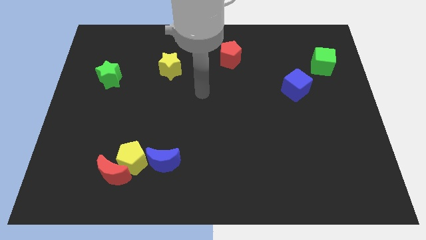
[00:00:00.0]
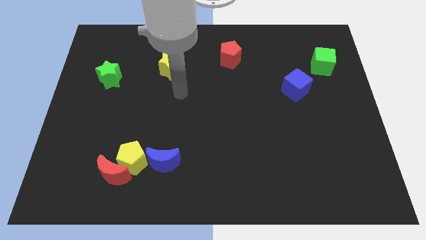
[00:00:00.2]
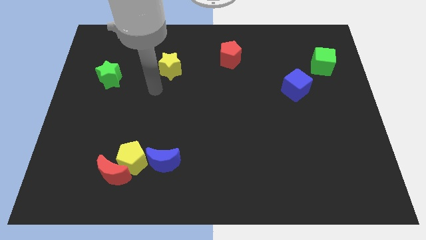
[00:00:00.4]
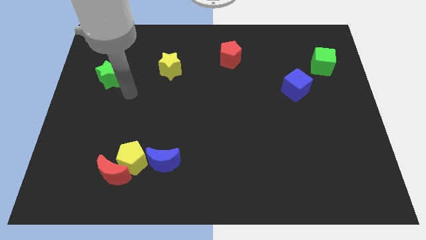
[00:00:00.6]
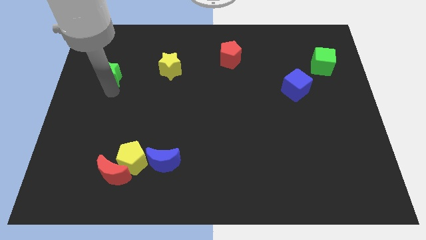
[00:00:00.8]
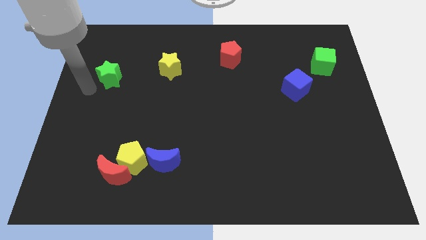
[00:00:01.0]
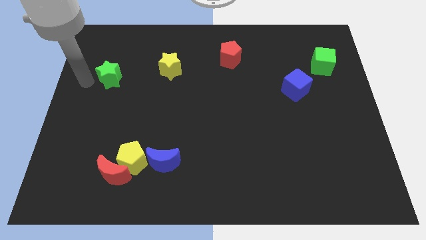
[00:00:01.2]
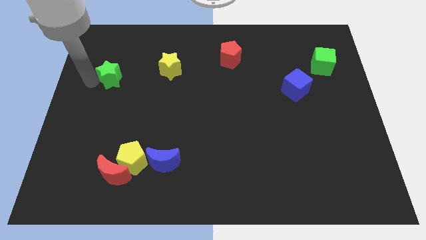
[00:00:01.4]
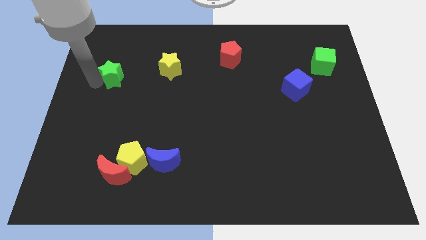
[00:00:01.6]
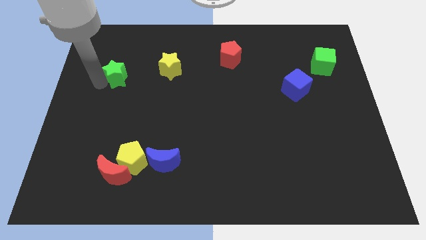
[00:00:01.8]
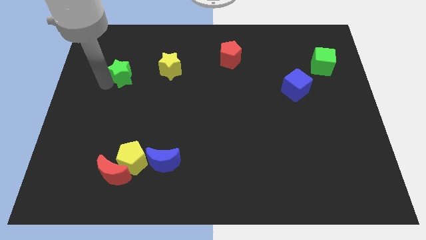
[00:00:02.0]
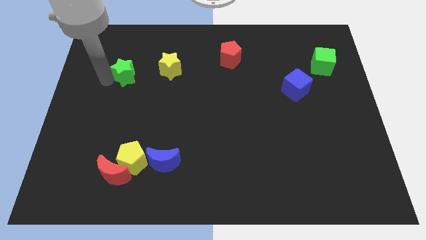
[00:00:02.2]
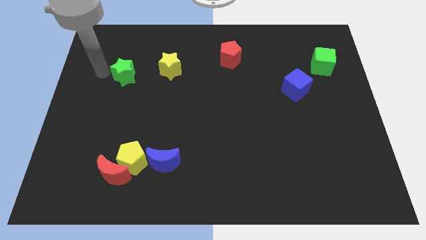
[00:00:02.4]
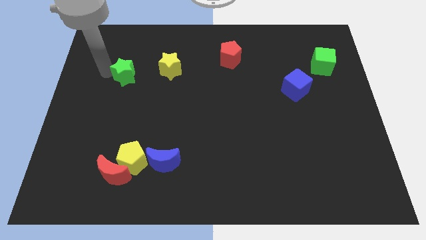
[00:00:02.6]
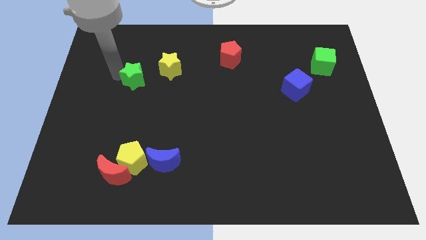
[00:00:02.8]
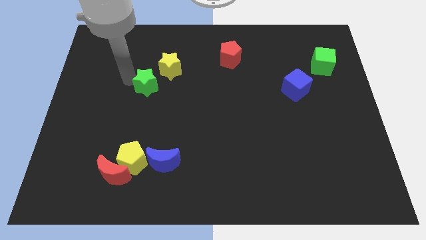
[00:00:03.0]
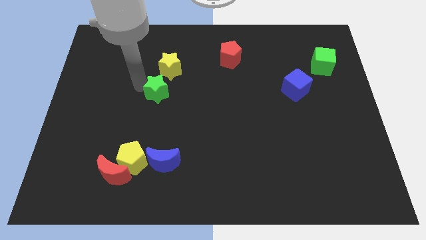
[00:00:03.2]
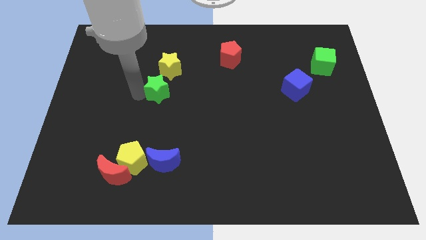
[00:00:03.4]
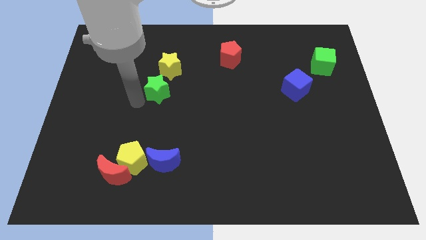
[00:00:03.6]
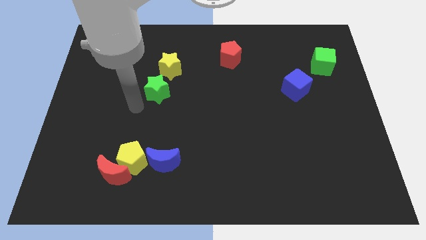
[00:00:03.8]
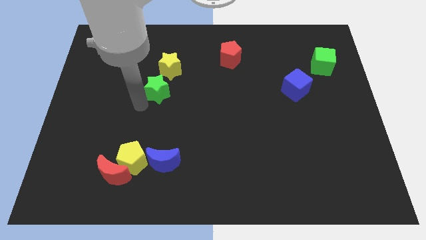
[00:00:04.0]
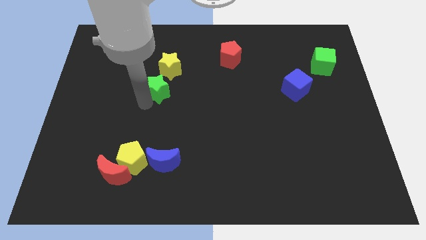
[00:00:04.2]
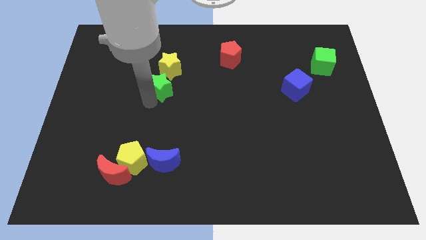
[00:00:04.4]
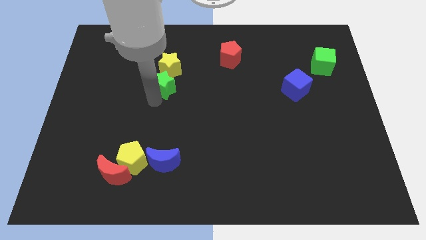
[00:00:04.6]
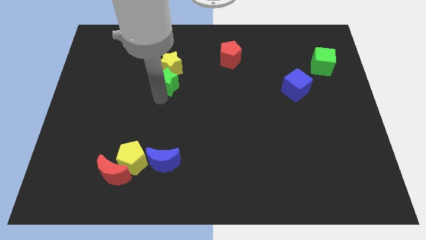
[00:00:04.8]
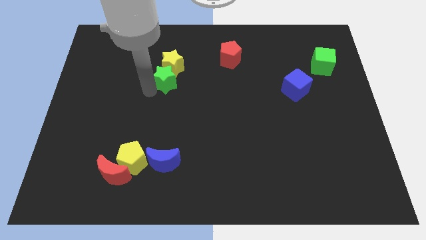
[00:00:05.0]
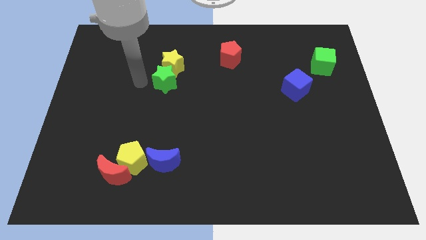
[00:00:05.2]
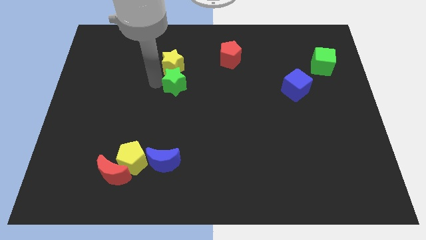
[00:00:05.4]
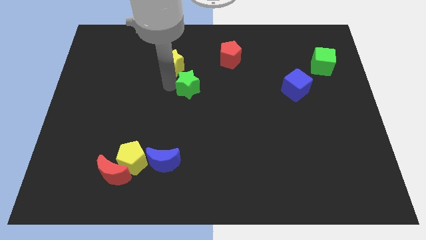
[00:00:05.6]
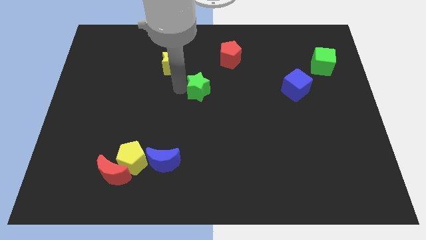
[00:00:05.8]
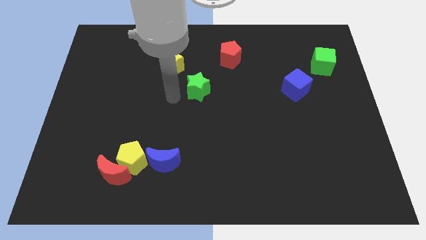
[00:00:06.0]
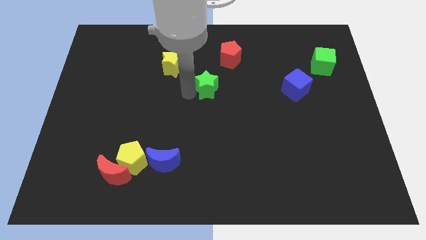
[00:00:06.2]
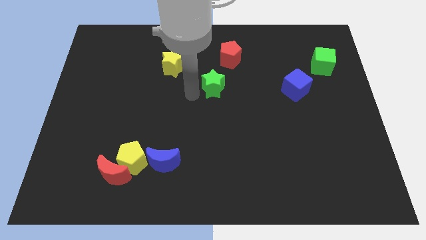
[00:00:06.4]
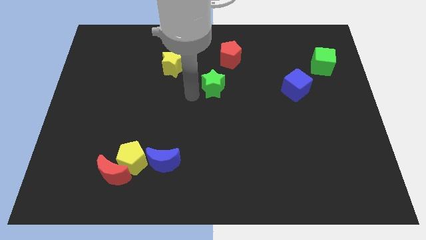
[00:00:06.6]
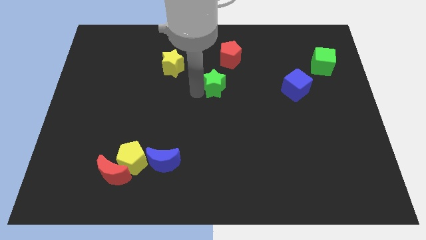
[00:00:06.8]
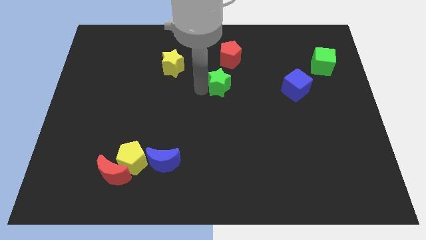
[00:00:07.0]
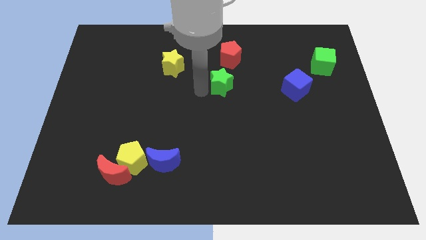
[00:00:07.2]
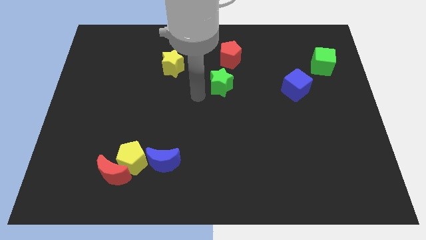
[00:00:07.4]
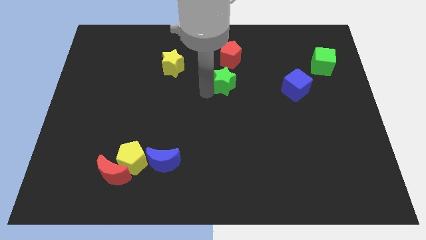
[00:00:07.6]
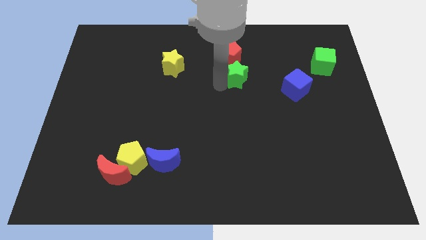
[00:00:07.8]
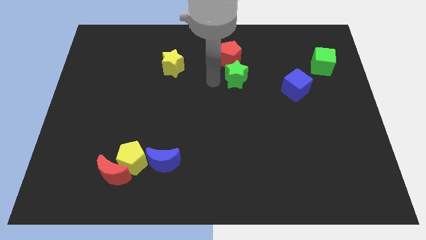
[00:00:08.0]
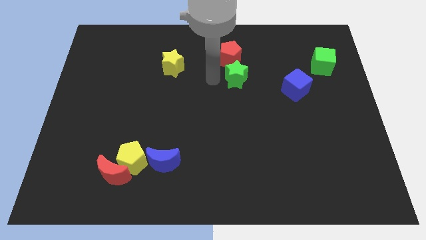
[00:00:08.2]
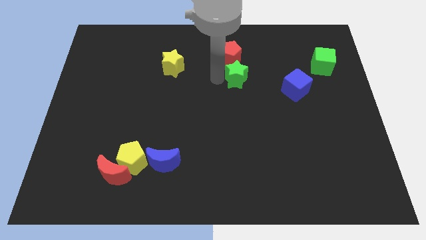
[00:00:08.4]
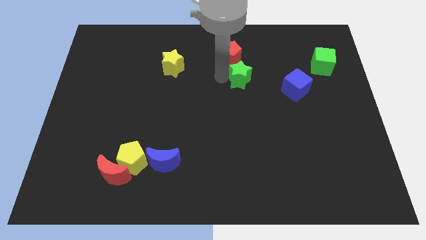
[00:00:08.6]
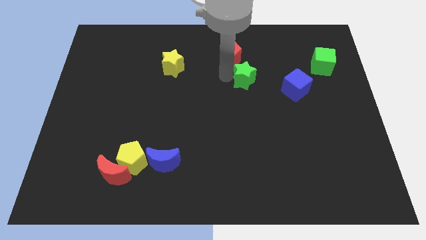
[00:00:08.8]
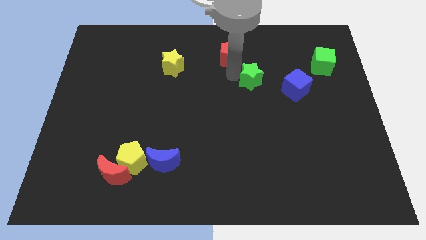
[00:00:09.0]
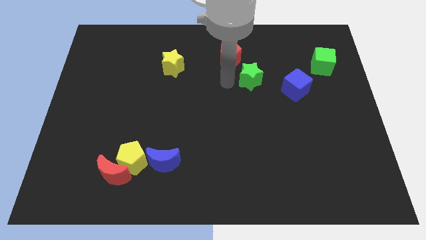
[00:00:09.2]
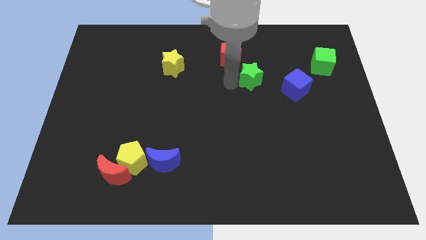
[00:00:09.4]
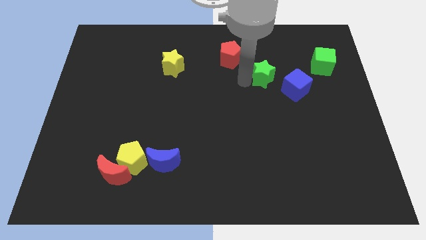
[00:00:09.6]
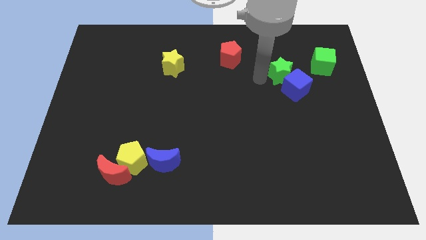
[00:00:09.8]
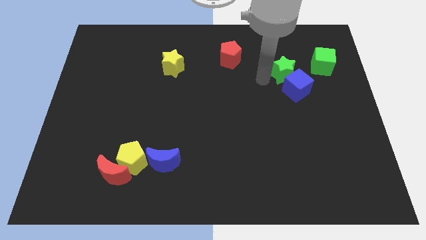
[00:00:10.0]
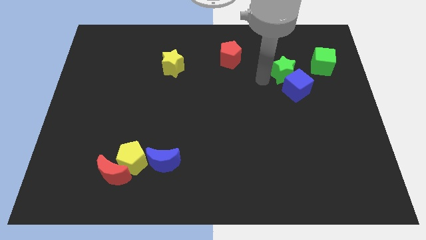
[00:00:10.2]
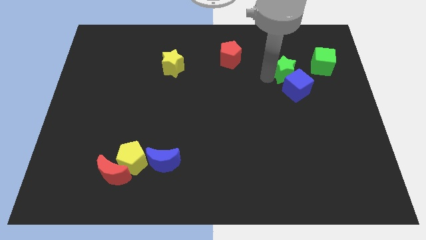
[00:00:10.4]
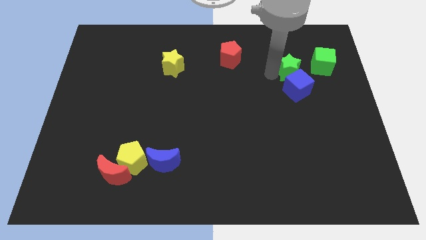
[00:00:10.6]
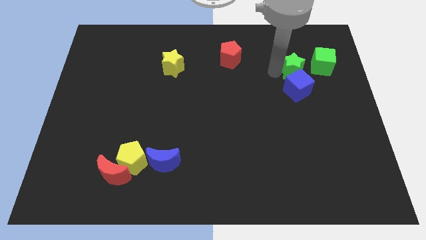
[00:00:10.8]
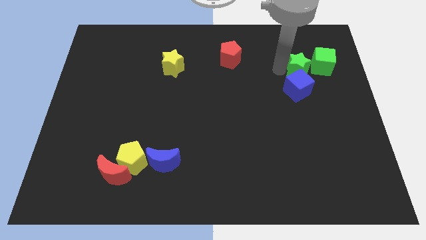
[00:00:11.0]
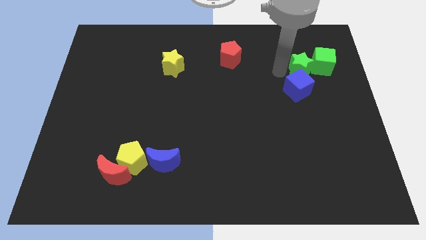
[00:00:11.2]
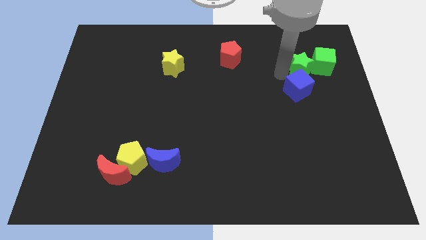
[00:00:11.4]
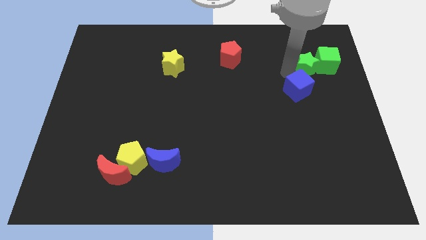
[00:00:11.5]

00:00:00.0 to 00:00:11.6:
slide the green star close to the green cube

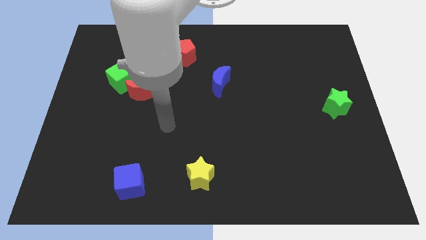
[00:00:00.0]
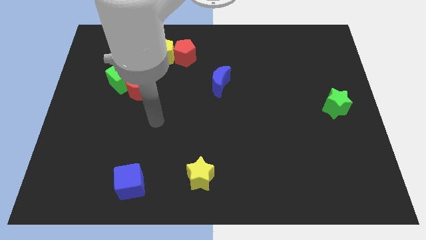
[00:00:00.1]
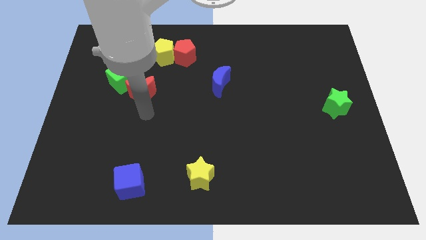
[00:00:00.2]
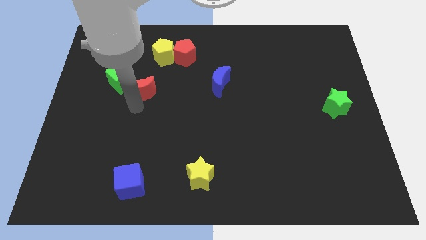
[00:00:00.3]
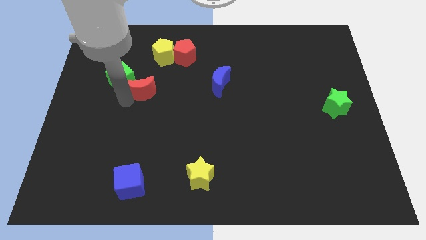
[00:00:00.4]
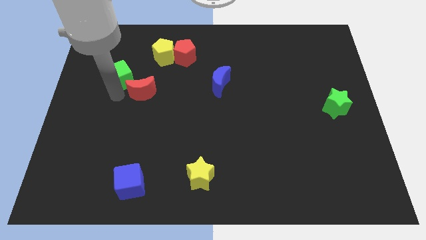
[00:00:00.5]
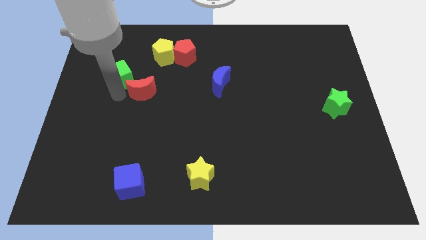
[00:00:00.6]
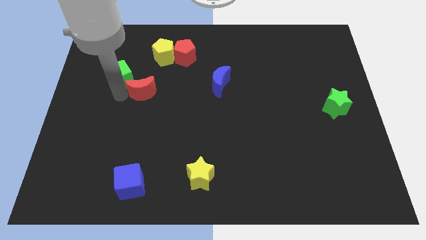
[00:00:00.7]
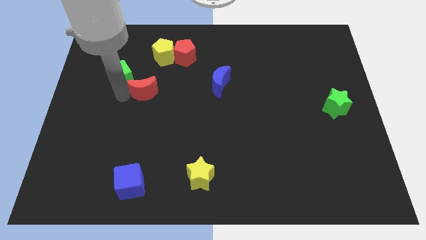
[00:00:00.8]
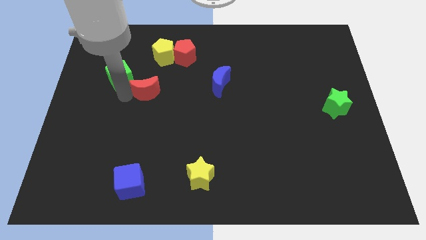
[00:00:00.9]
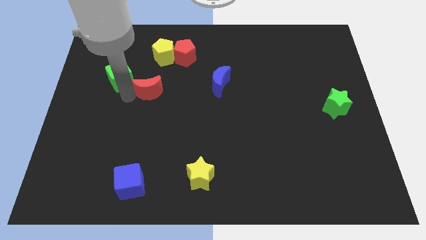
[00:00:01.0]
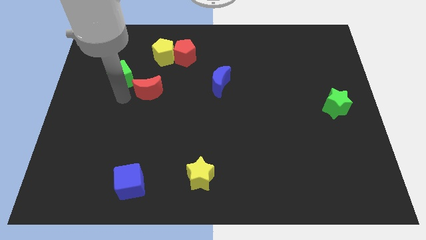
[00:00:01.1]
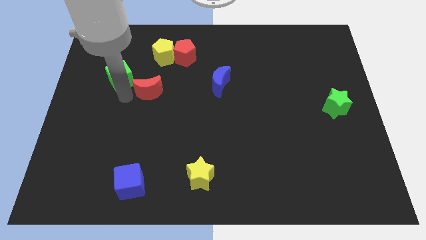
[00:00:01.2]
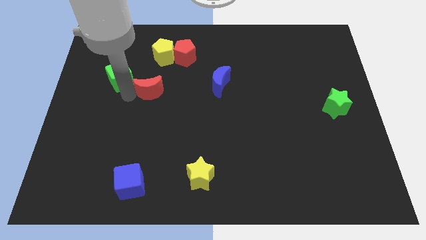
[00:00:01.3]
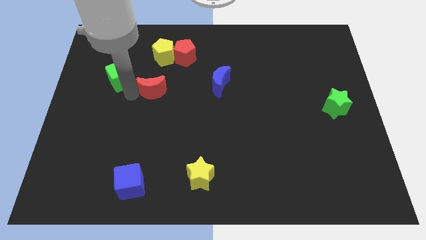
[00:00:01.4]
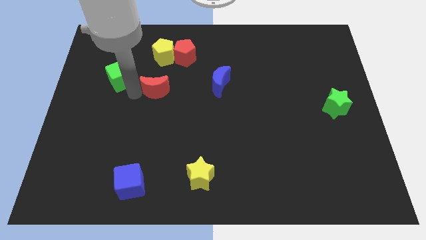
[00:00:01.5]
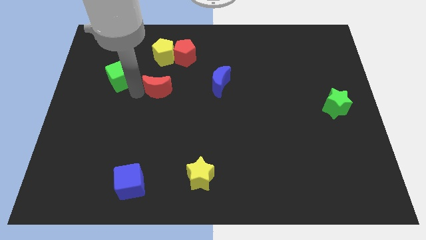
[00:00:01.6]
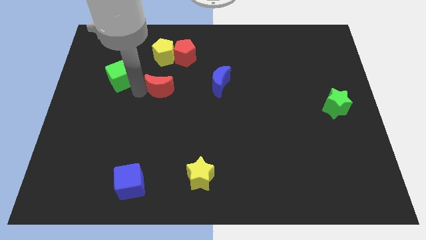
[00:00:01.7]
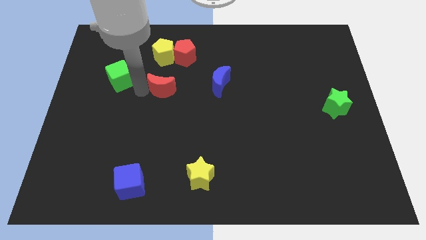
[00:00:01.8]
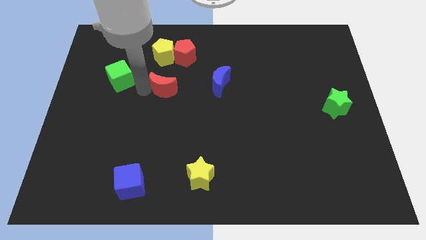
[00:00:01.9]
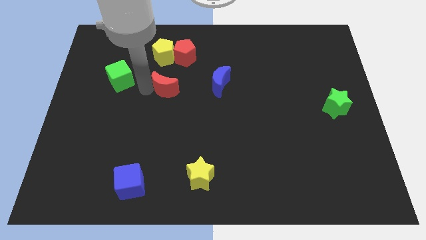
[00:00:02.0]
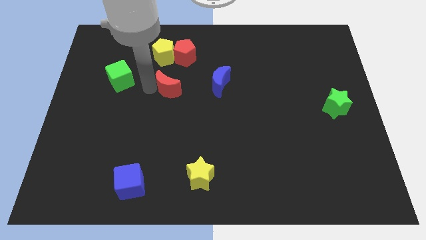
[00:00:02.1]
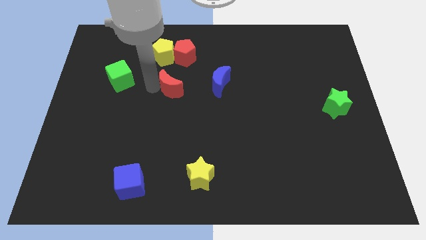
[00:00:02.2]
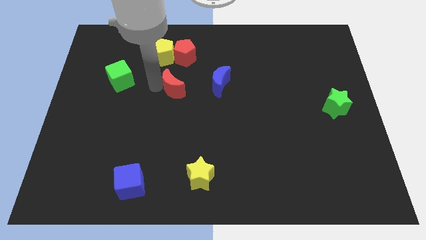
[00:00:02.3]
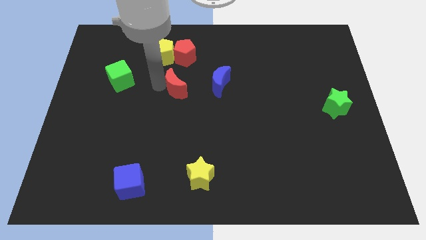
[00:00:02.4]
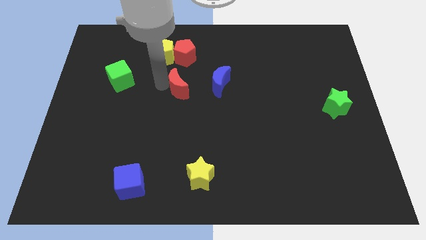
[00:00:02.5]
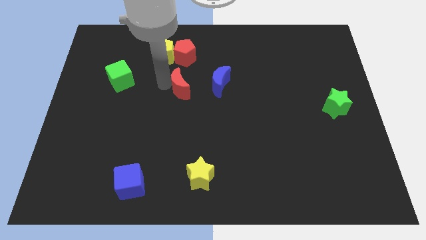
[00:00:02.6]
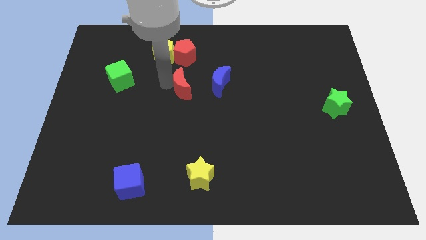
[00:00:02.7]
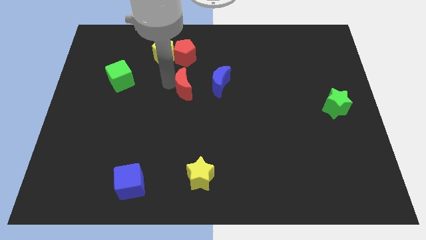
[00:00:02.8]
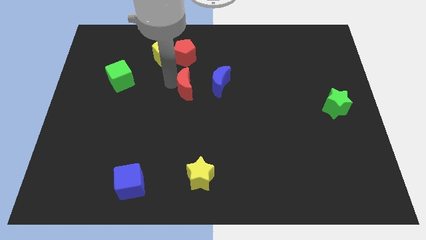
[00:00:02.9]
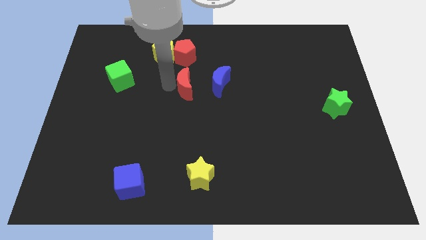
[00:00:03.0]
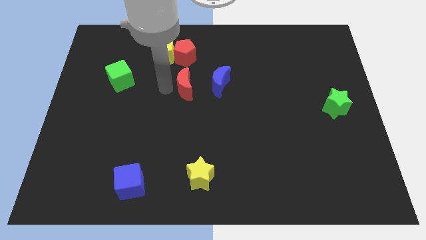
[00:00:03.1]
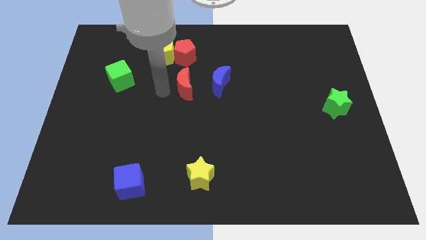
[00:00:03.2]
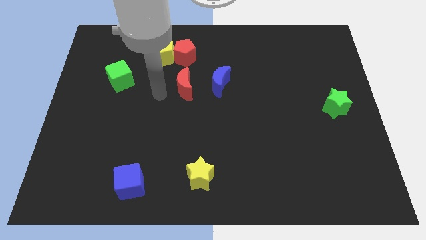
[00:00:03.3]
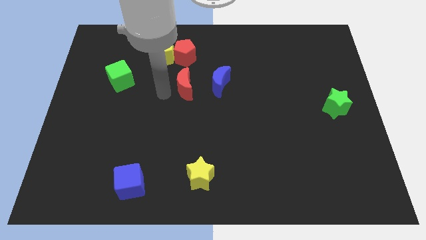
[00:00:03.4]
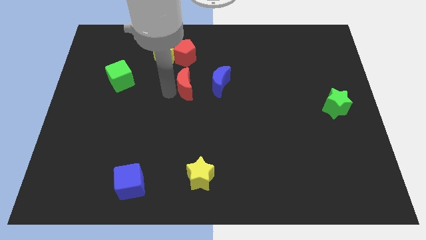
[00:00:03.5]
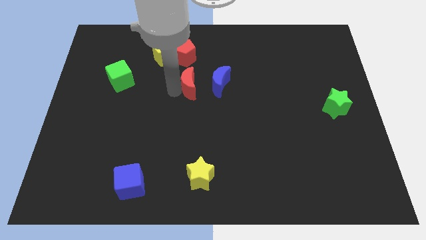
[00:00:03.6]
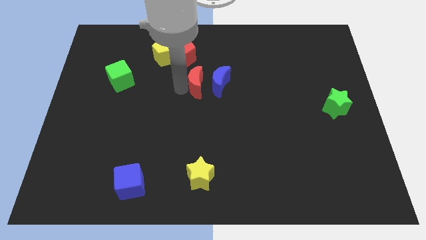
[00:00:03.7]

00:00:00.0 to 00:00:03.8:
put the red moon to the blue moon
